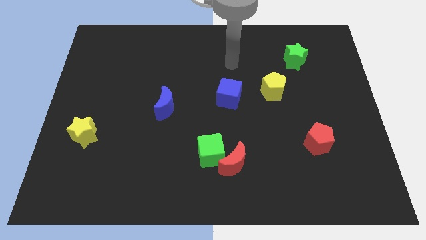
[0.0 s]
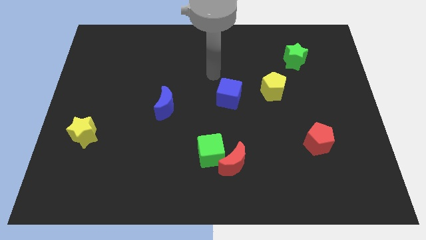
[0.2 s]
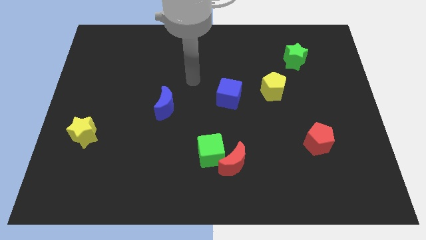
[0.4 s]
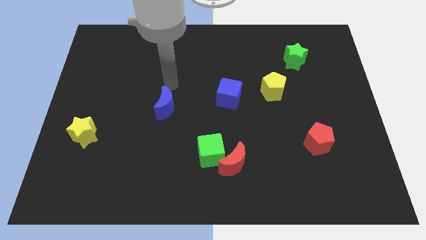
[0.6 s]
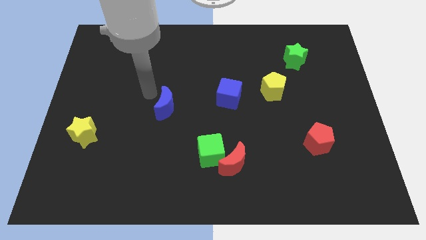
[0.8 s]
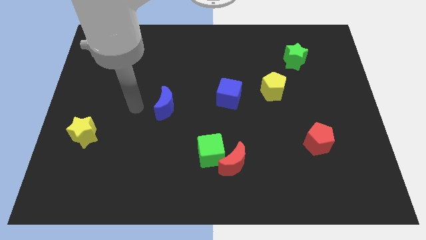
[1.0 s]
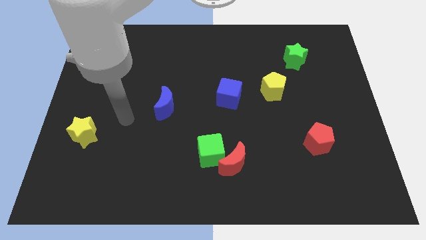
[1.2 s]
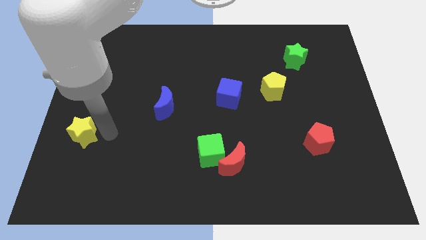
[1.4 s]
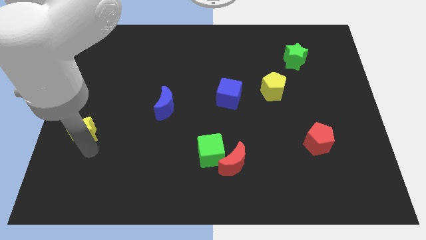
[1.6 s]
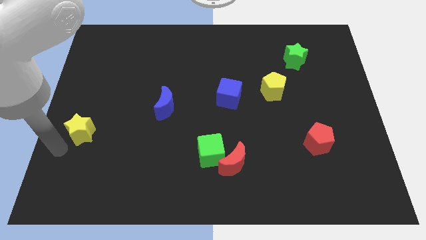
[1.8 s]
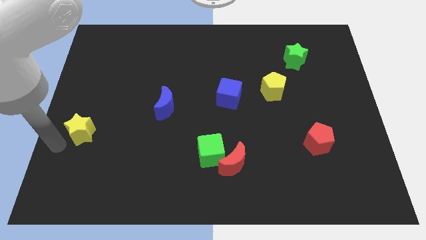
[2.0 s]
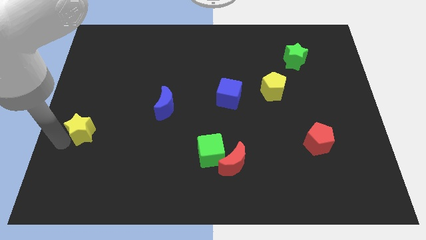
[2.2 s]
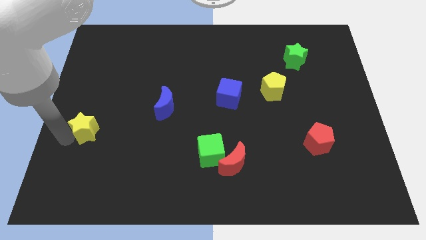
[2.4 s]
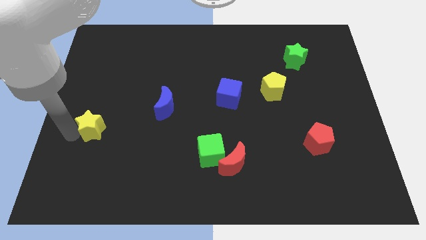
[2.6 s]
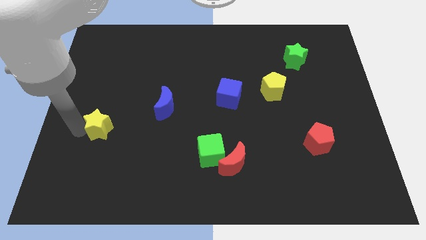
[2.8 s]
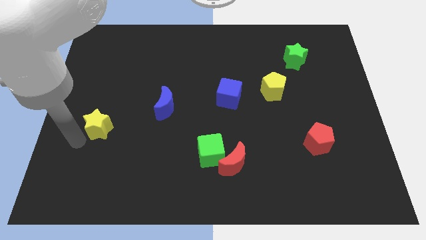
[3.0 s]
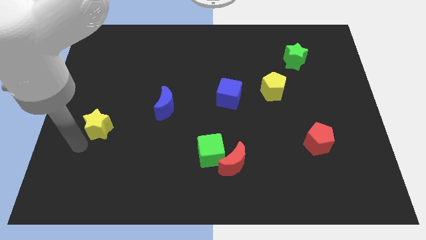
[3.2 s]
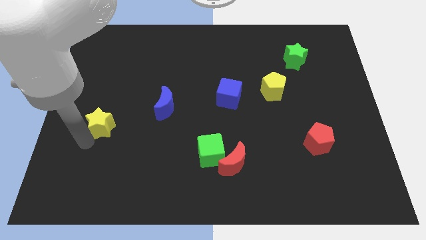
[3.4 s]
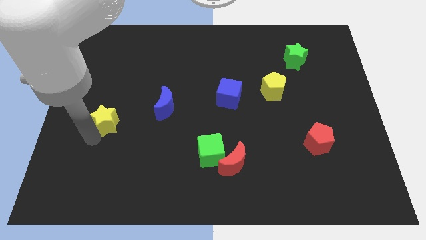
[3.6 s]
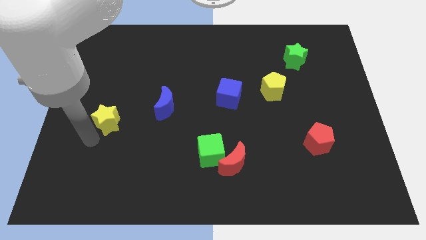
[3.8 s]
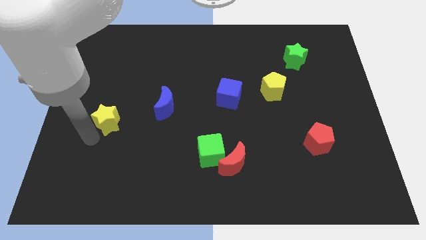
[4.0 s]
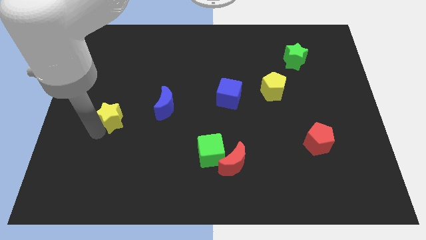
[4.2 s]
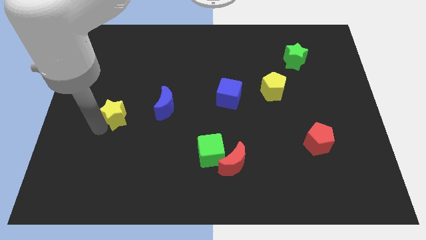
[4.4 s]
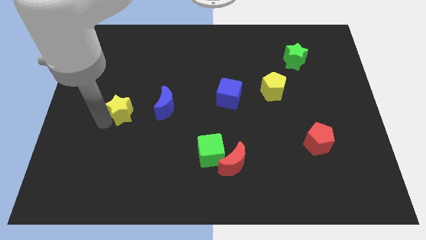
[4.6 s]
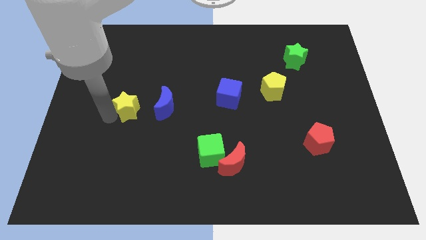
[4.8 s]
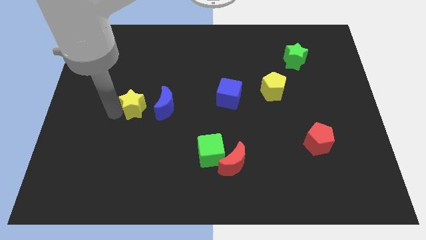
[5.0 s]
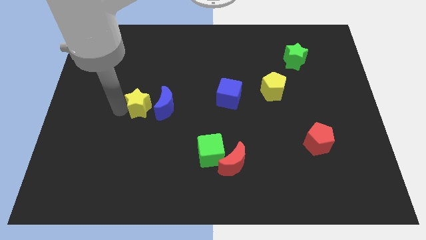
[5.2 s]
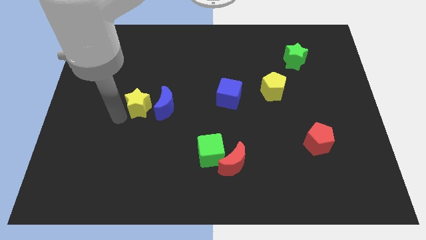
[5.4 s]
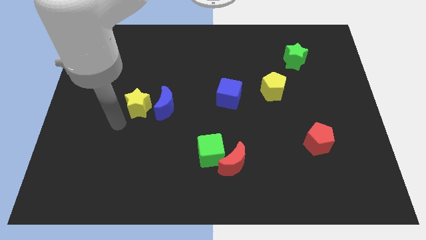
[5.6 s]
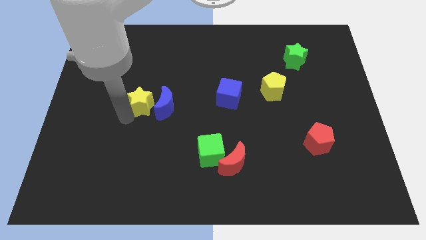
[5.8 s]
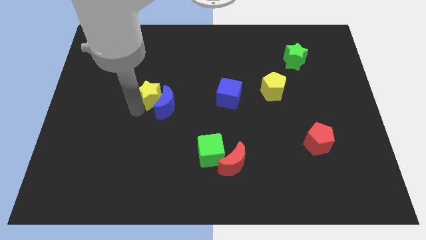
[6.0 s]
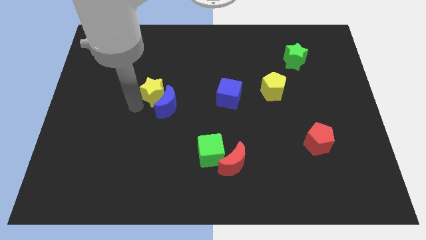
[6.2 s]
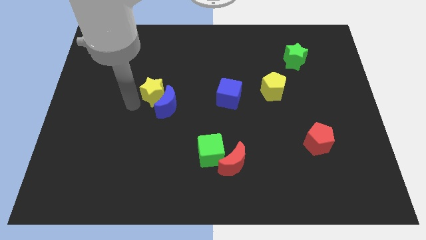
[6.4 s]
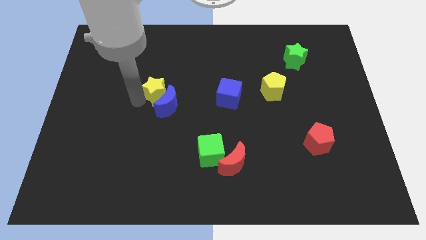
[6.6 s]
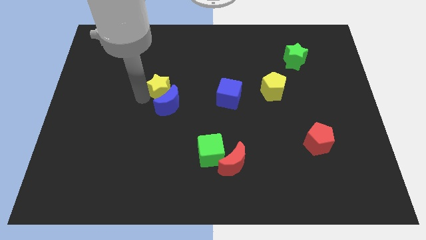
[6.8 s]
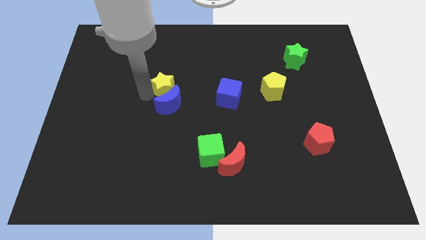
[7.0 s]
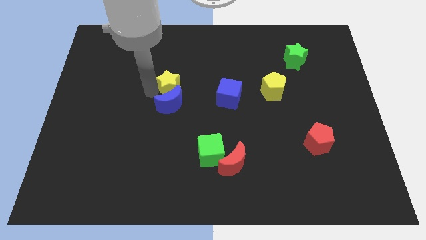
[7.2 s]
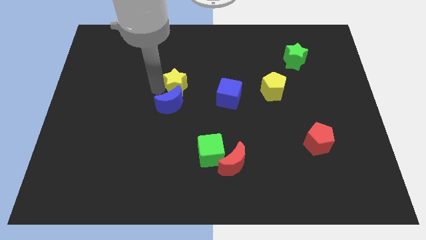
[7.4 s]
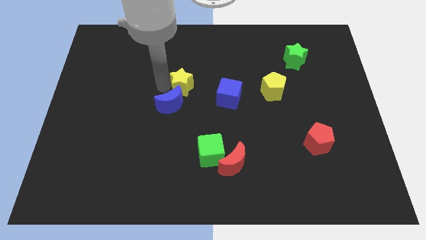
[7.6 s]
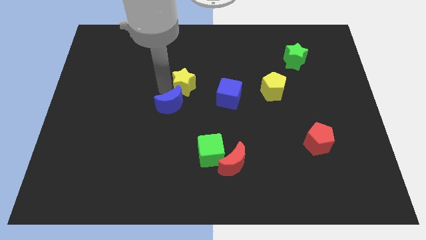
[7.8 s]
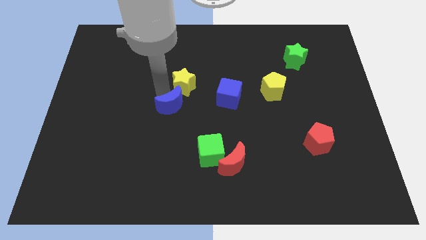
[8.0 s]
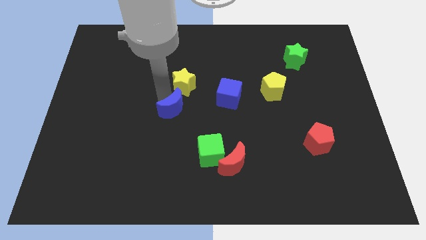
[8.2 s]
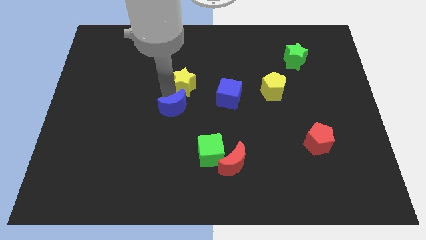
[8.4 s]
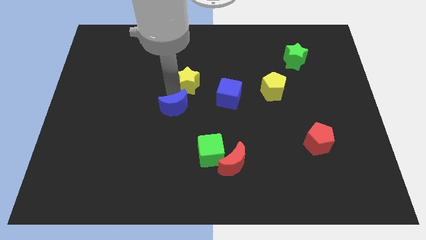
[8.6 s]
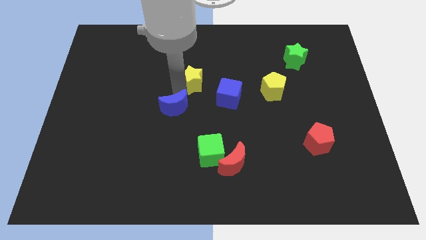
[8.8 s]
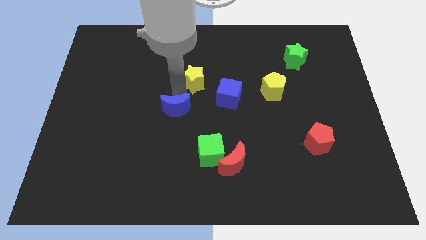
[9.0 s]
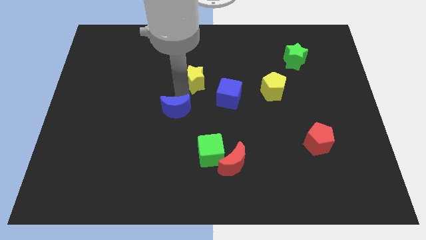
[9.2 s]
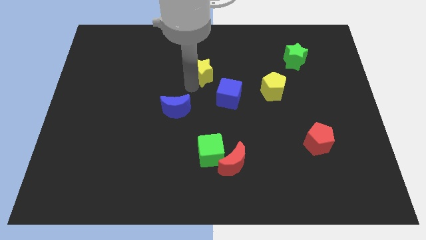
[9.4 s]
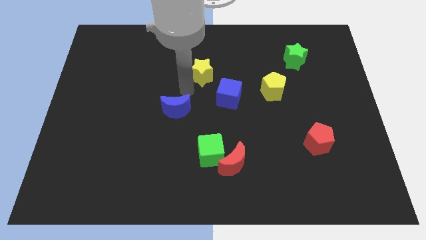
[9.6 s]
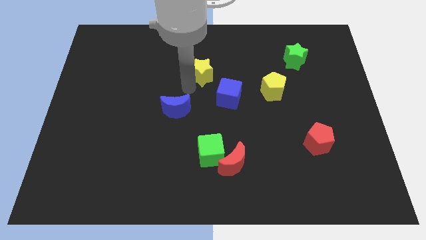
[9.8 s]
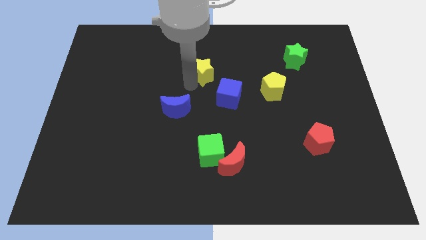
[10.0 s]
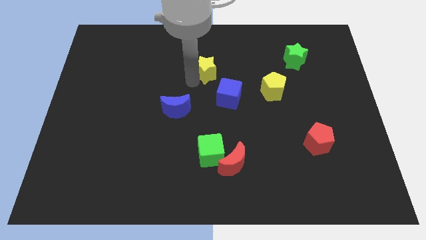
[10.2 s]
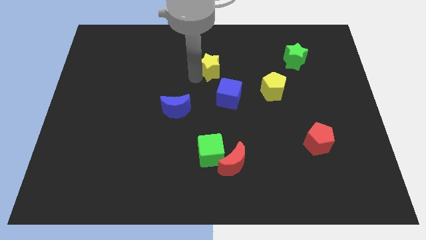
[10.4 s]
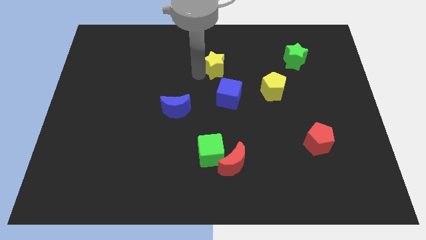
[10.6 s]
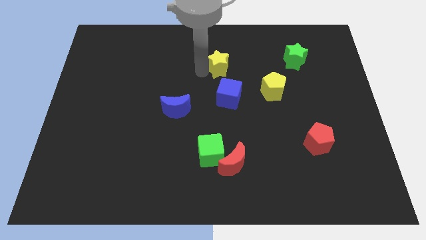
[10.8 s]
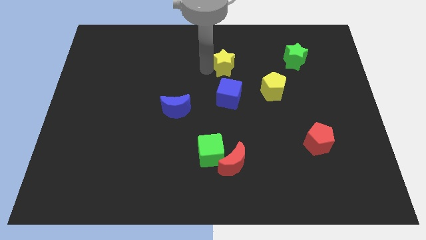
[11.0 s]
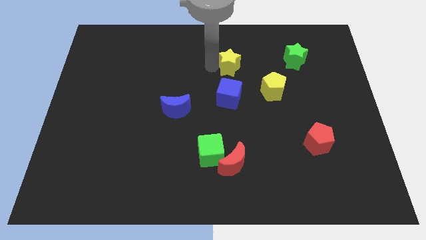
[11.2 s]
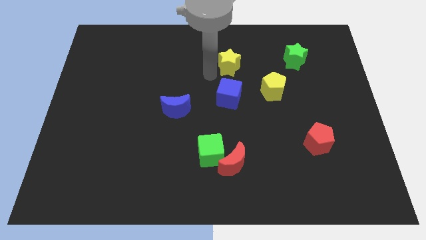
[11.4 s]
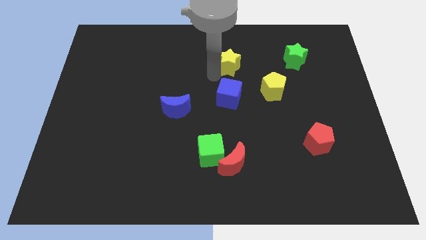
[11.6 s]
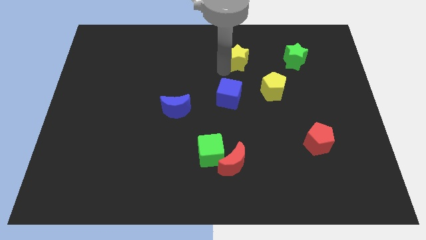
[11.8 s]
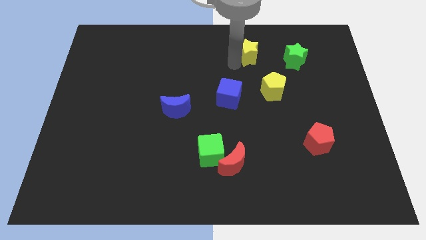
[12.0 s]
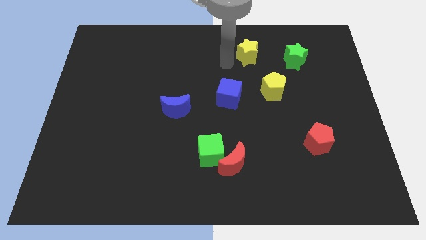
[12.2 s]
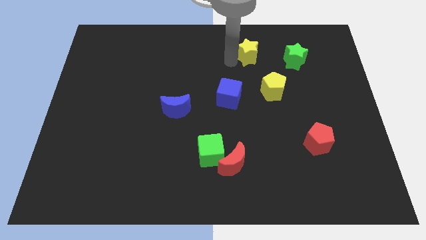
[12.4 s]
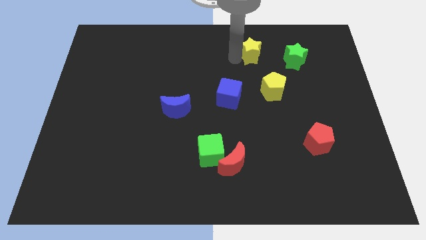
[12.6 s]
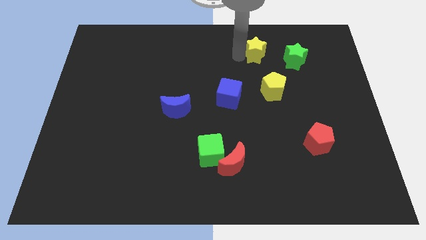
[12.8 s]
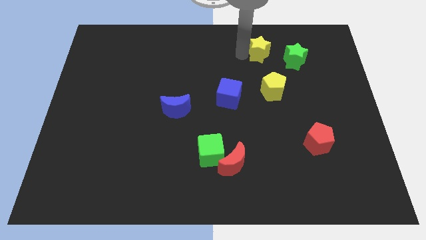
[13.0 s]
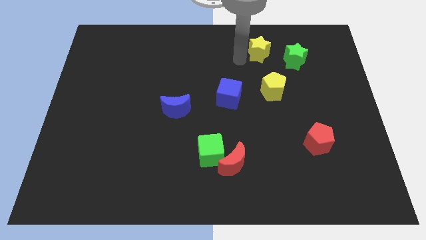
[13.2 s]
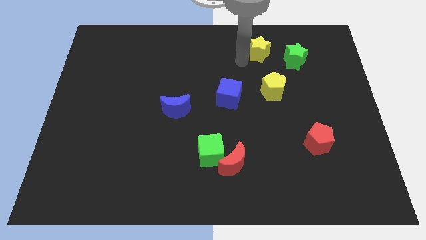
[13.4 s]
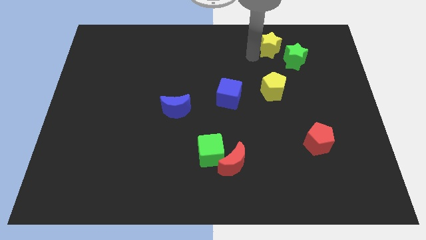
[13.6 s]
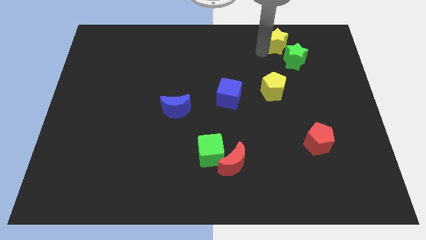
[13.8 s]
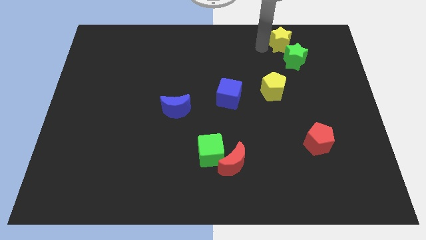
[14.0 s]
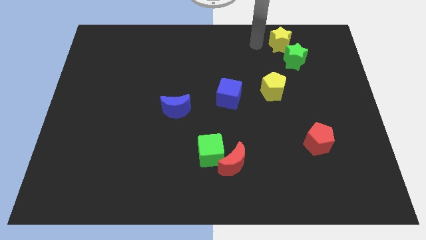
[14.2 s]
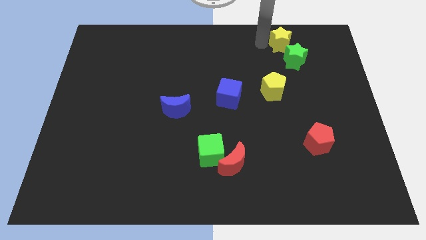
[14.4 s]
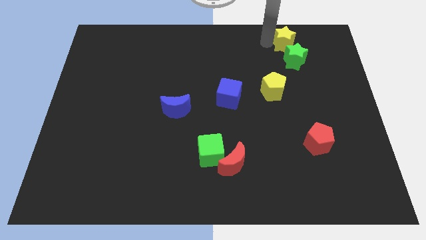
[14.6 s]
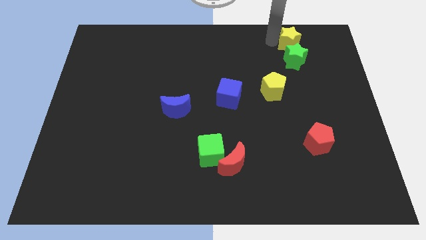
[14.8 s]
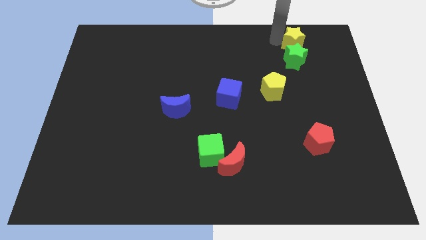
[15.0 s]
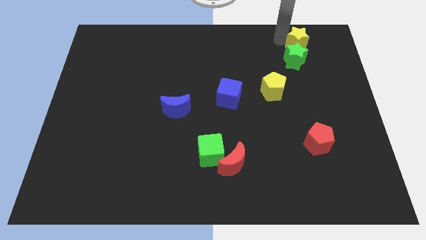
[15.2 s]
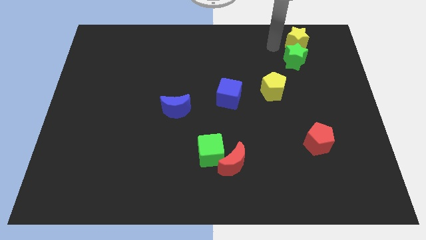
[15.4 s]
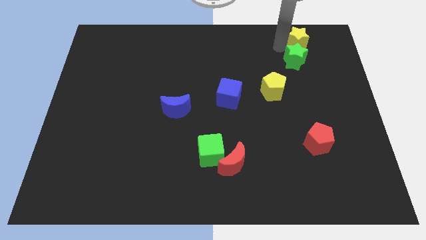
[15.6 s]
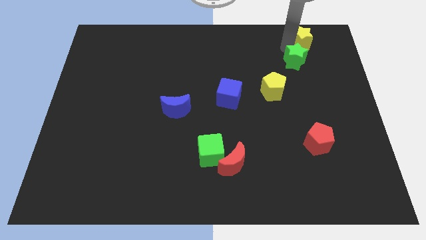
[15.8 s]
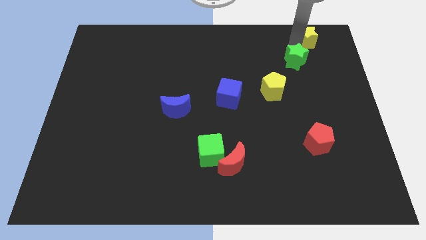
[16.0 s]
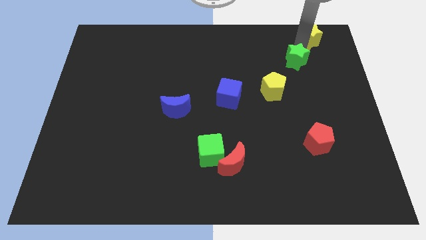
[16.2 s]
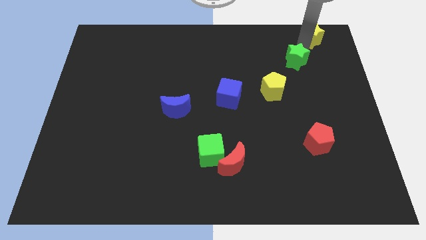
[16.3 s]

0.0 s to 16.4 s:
push the yellow star to the upper right corner
